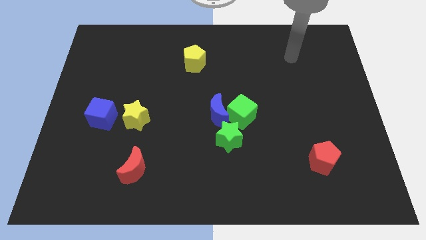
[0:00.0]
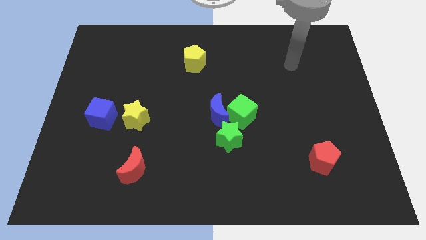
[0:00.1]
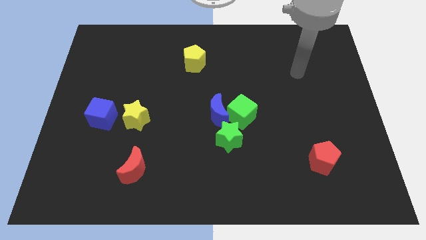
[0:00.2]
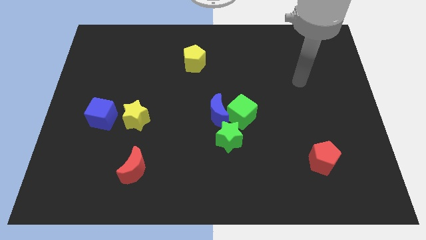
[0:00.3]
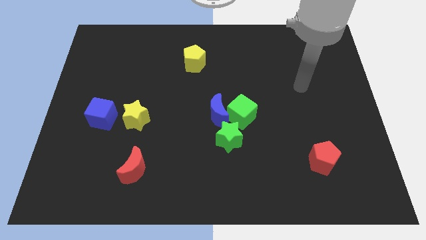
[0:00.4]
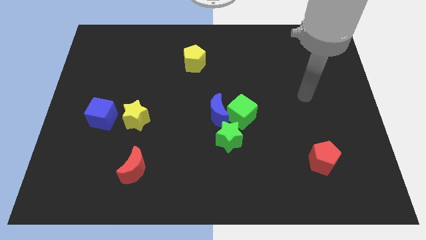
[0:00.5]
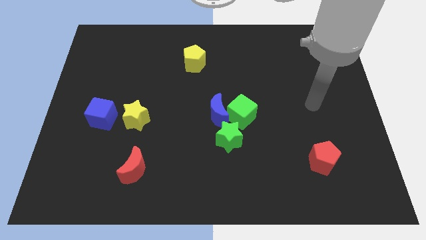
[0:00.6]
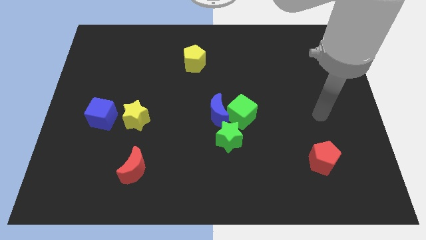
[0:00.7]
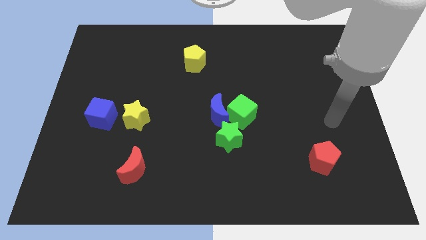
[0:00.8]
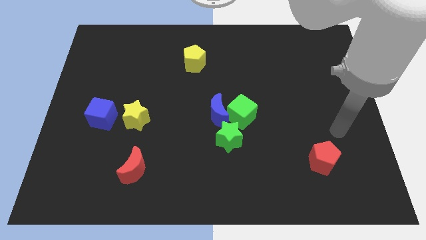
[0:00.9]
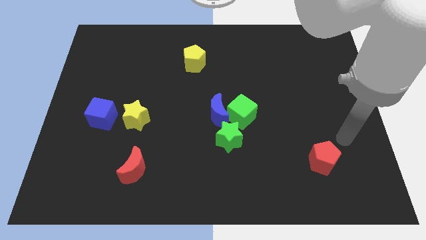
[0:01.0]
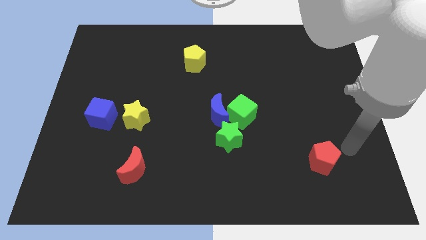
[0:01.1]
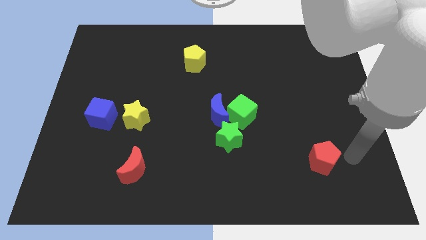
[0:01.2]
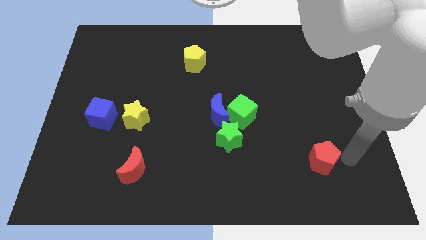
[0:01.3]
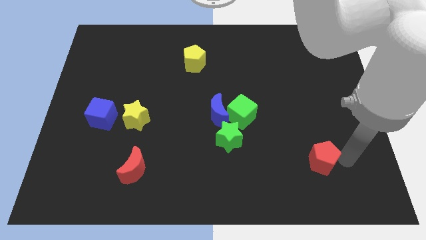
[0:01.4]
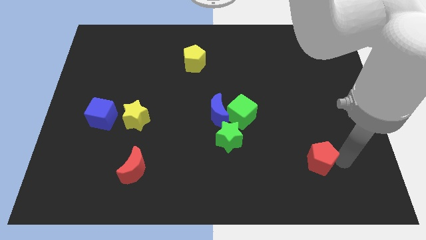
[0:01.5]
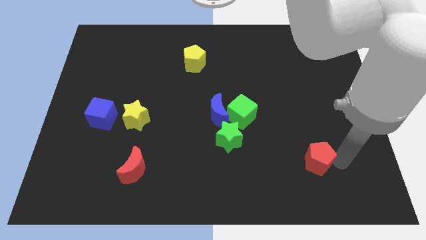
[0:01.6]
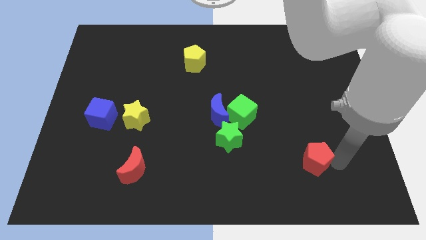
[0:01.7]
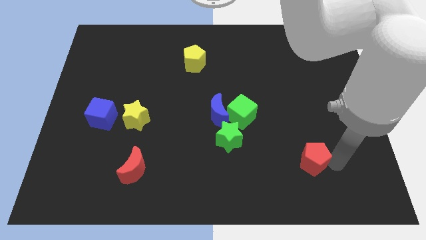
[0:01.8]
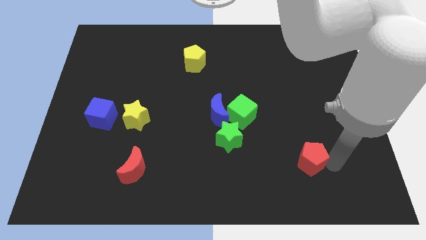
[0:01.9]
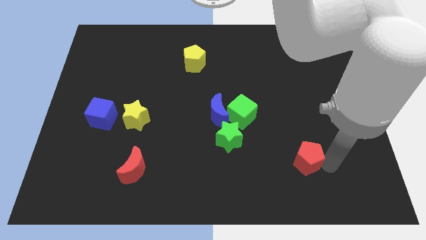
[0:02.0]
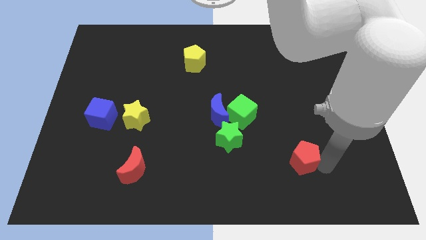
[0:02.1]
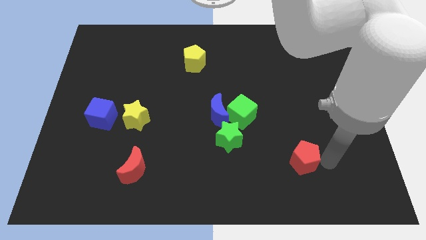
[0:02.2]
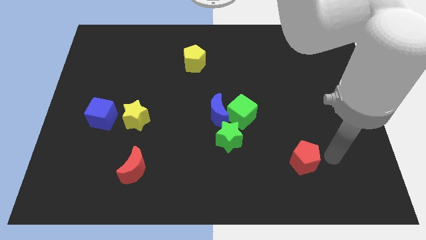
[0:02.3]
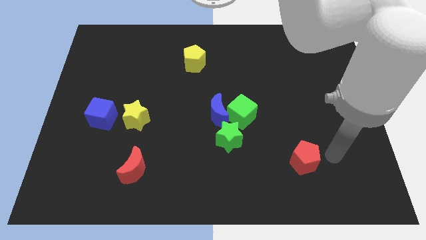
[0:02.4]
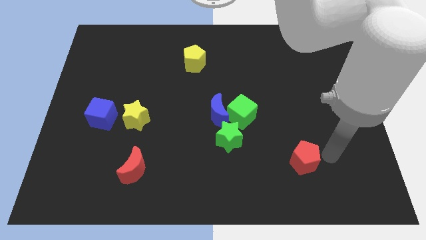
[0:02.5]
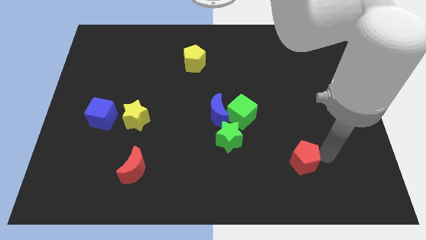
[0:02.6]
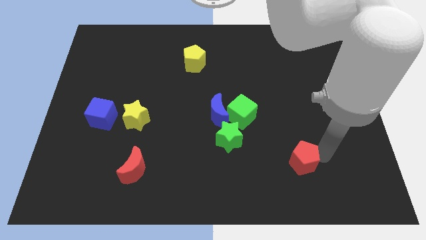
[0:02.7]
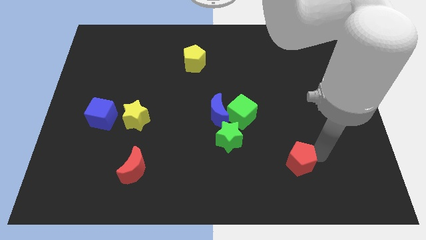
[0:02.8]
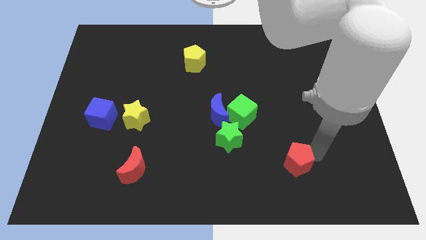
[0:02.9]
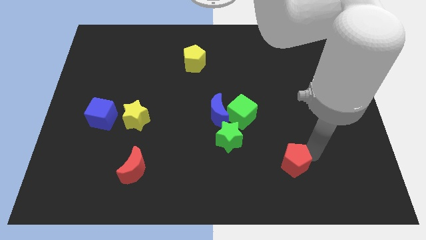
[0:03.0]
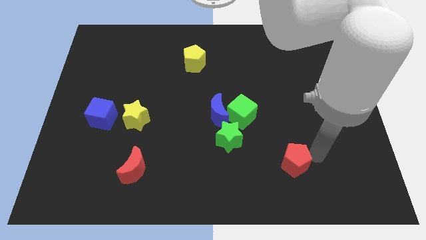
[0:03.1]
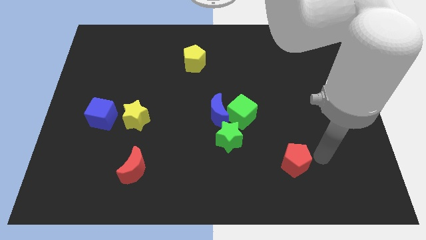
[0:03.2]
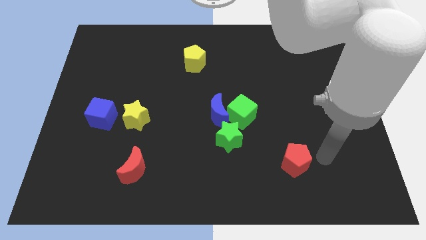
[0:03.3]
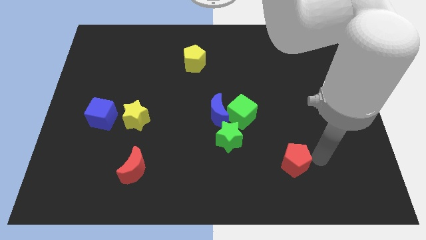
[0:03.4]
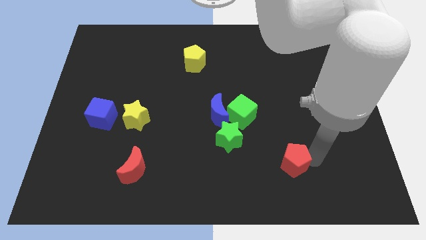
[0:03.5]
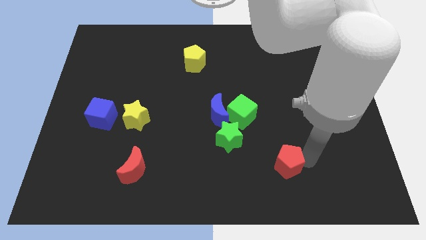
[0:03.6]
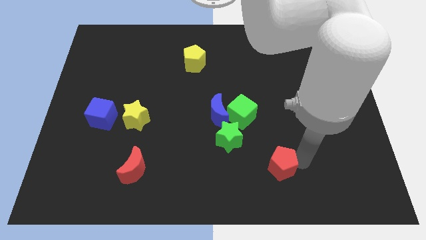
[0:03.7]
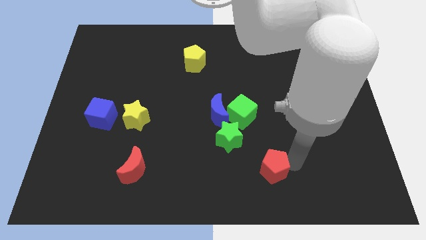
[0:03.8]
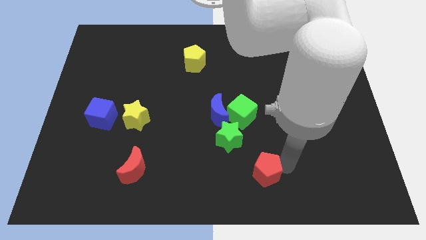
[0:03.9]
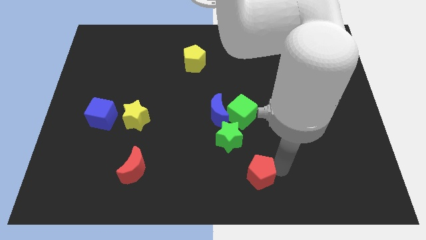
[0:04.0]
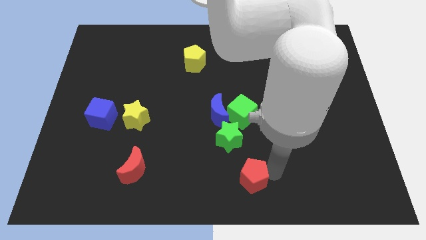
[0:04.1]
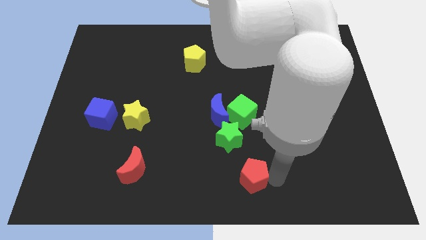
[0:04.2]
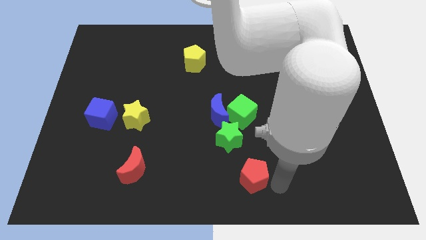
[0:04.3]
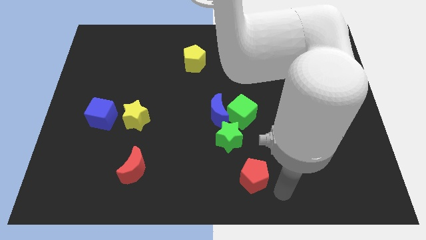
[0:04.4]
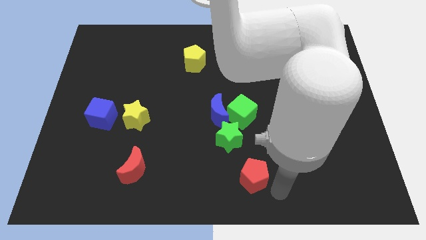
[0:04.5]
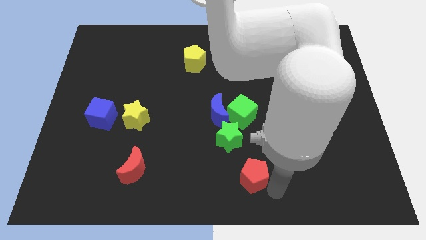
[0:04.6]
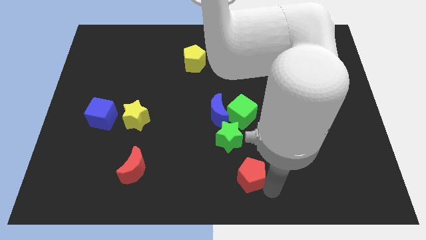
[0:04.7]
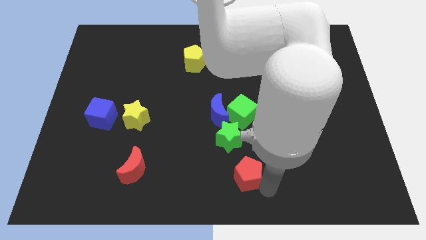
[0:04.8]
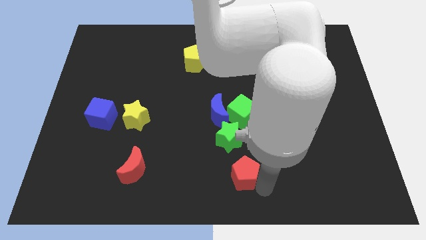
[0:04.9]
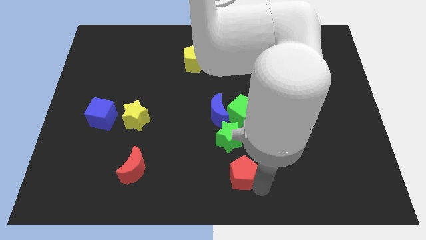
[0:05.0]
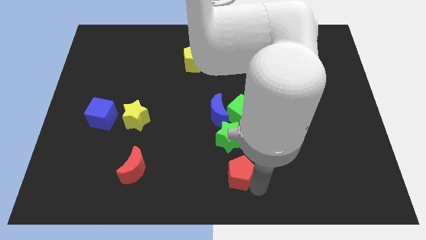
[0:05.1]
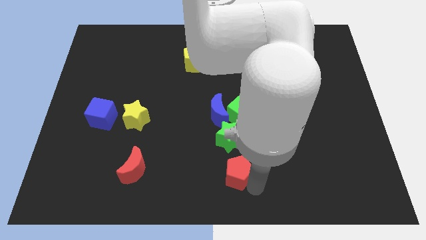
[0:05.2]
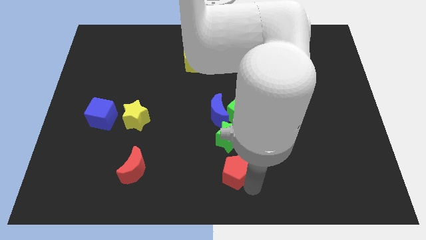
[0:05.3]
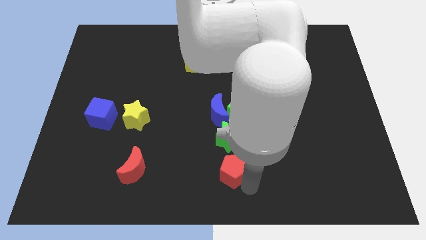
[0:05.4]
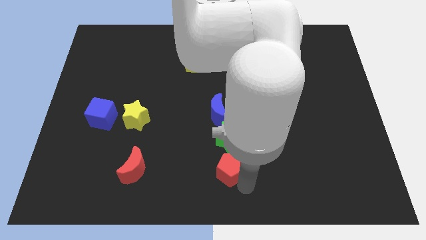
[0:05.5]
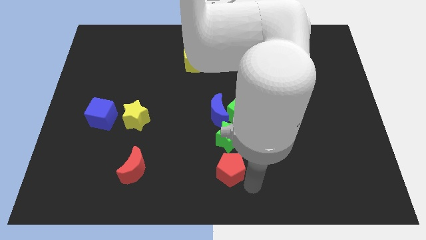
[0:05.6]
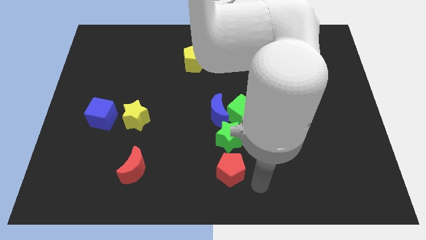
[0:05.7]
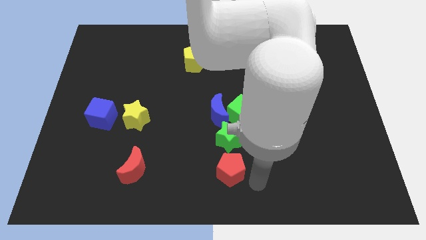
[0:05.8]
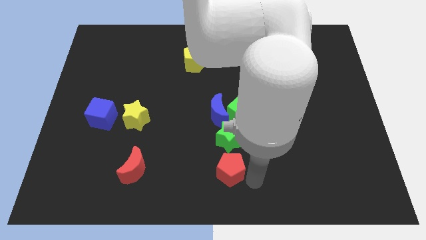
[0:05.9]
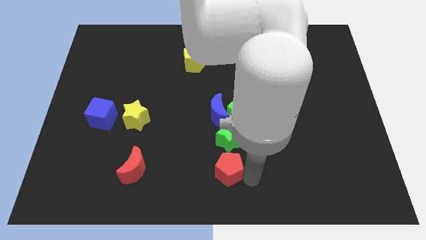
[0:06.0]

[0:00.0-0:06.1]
move the red pentagon left

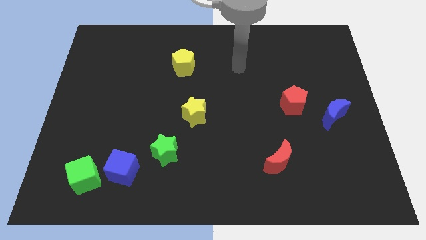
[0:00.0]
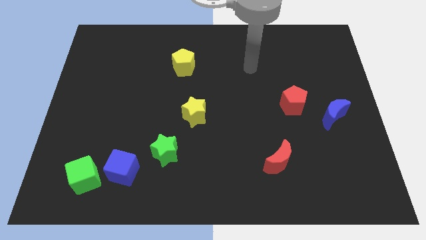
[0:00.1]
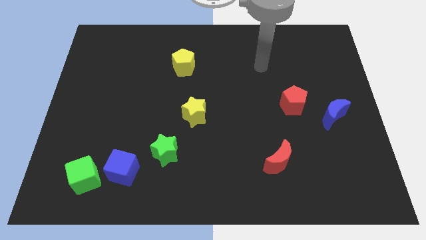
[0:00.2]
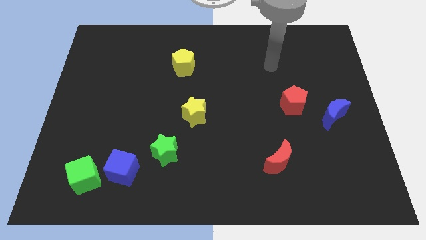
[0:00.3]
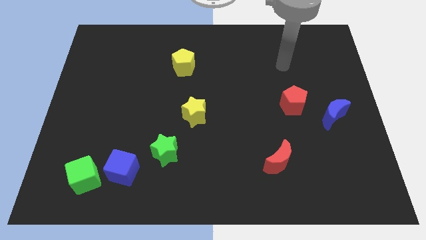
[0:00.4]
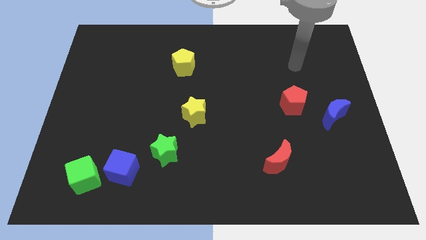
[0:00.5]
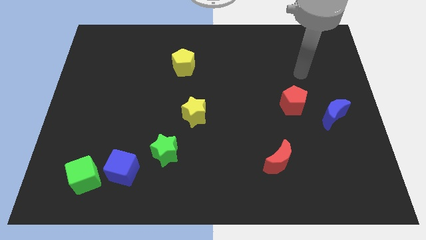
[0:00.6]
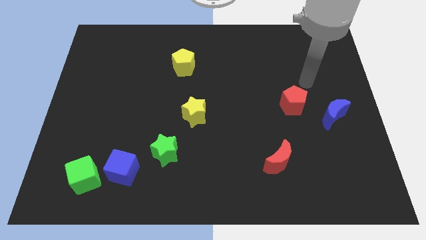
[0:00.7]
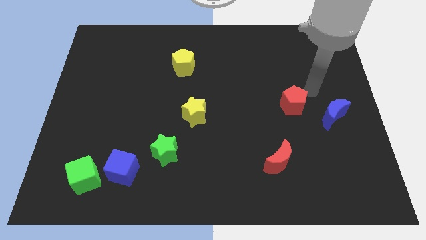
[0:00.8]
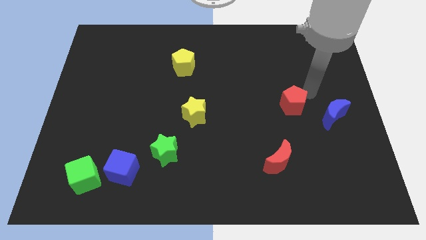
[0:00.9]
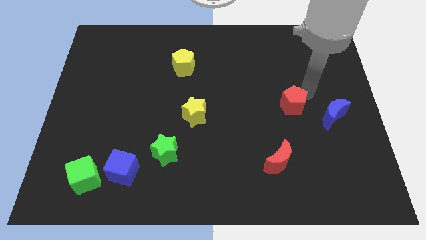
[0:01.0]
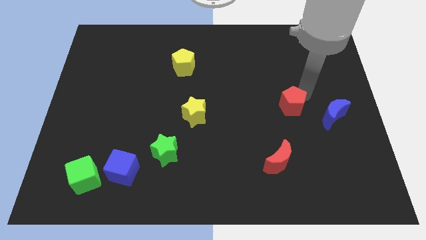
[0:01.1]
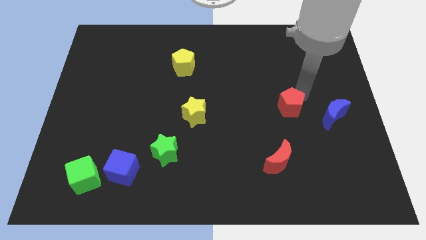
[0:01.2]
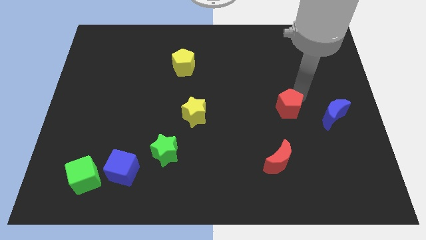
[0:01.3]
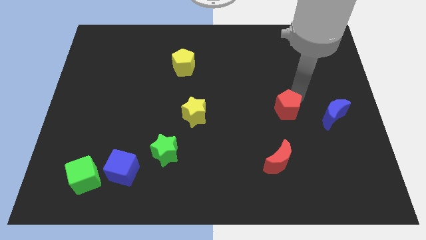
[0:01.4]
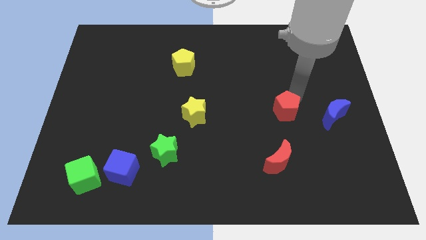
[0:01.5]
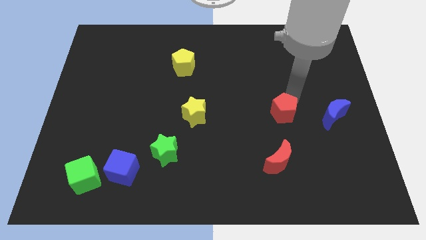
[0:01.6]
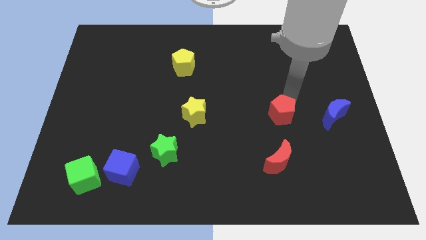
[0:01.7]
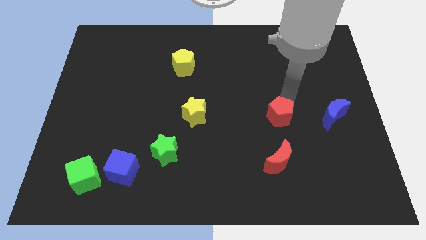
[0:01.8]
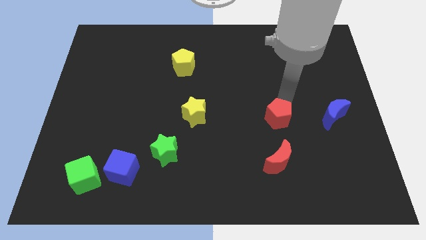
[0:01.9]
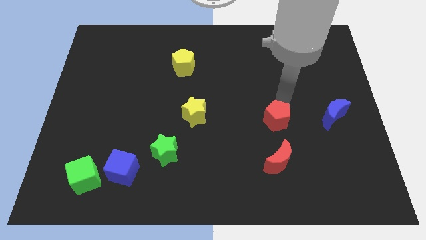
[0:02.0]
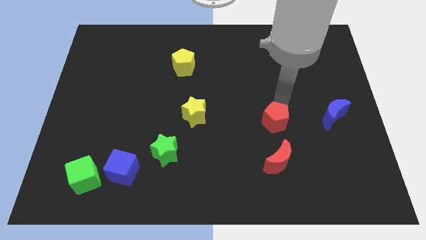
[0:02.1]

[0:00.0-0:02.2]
slide the red pentagon down and then to the left a little bit
